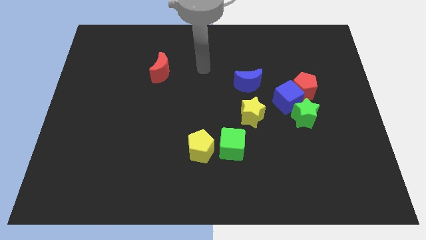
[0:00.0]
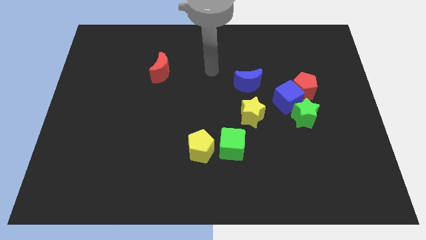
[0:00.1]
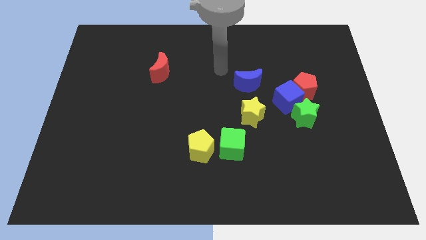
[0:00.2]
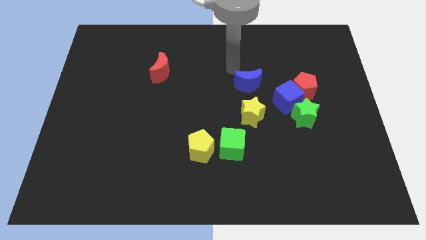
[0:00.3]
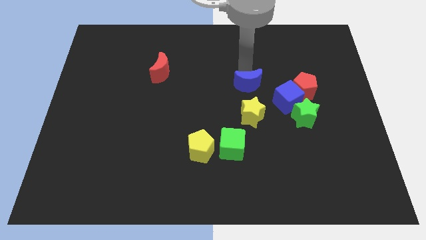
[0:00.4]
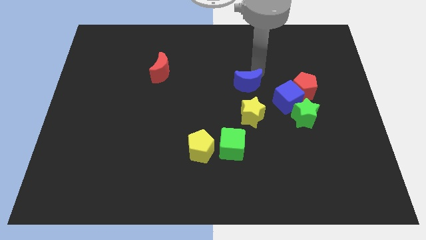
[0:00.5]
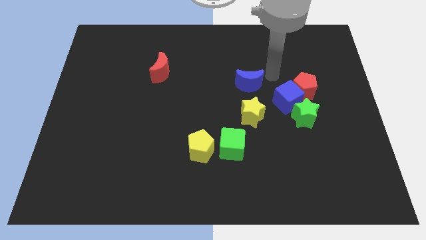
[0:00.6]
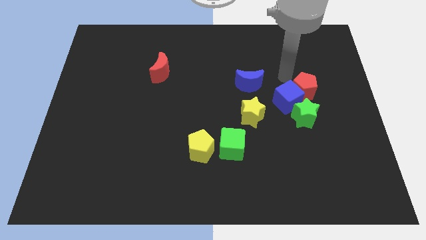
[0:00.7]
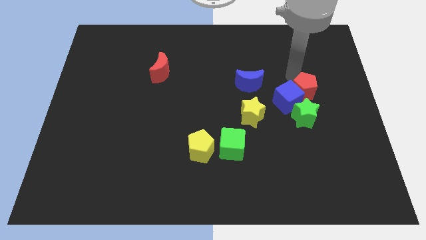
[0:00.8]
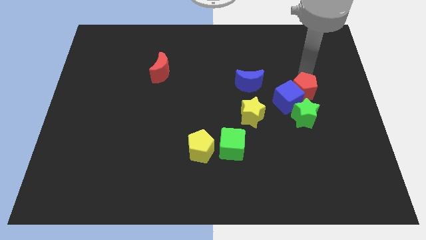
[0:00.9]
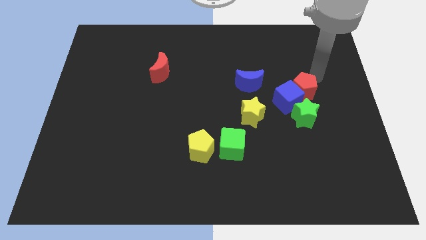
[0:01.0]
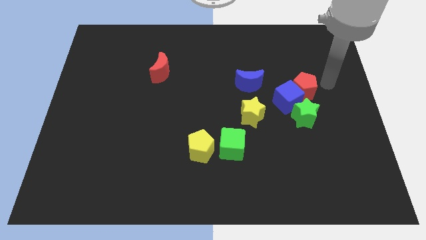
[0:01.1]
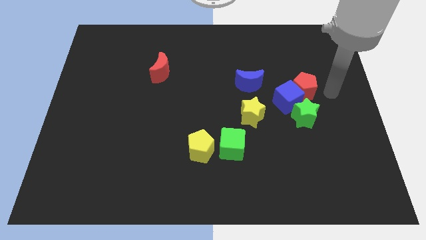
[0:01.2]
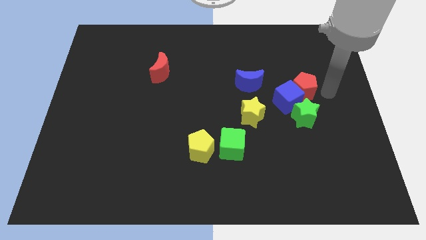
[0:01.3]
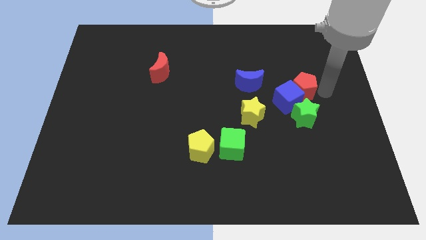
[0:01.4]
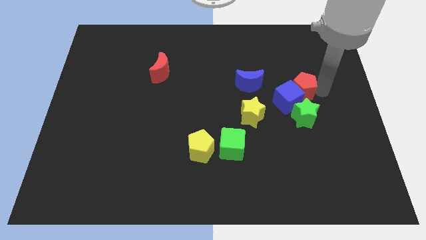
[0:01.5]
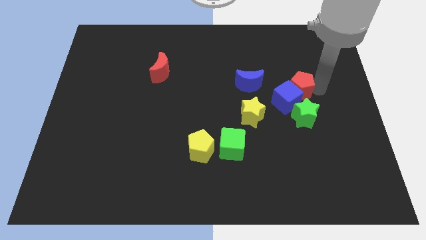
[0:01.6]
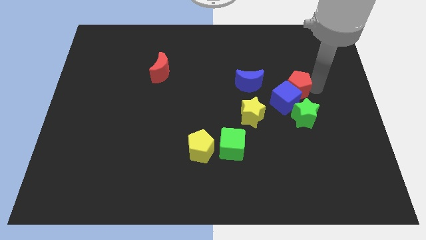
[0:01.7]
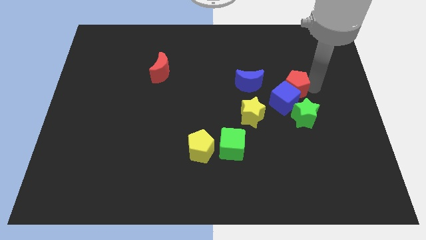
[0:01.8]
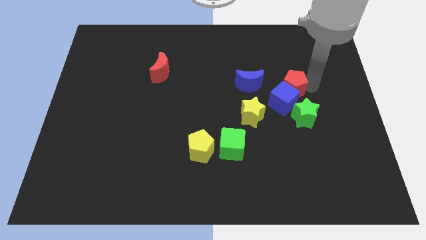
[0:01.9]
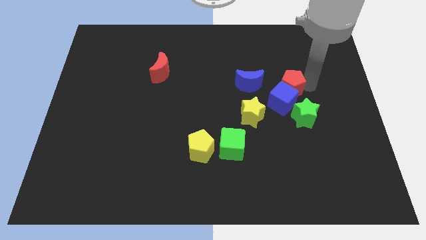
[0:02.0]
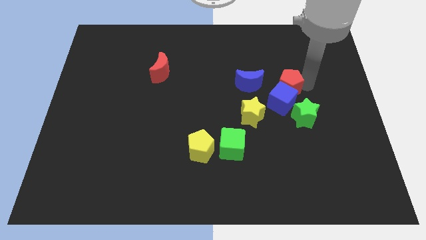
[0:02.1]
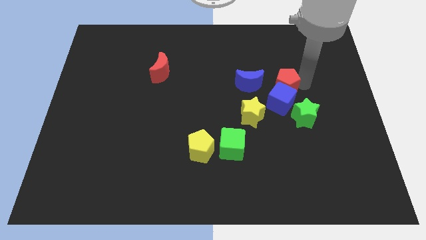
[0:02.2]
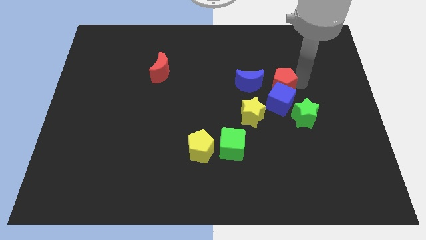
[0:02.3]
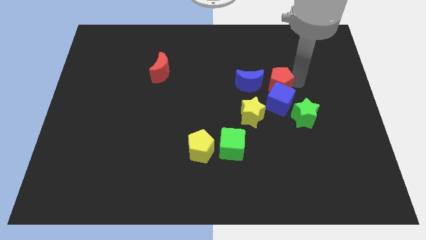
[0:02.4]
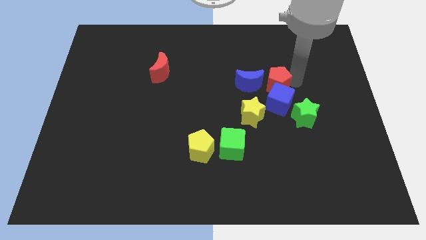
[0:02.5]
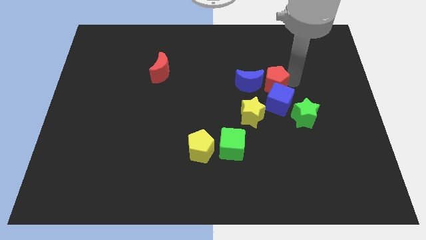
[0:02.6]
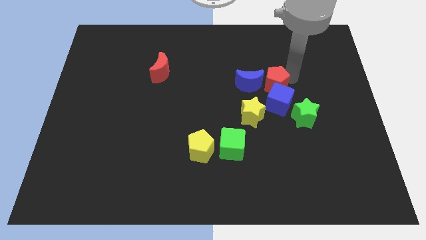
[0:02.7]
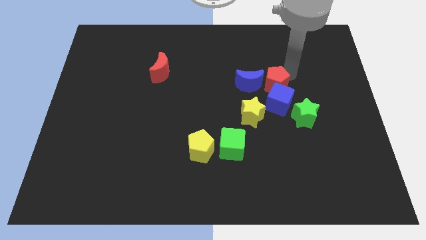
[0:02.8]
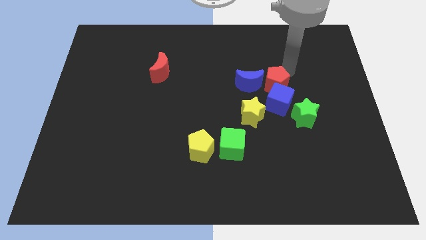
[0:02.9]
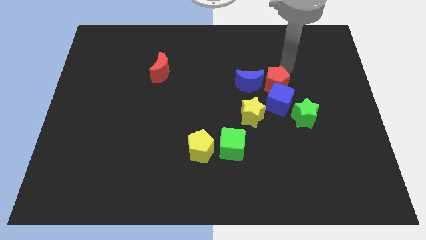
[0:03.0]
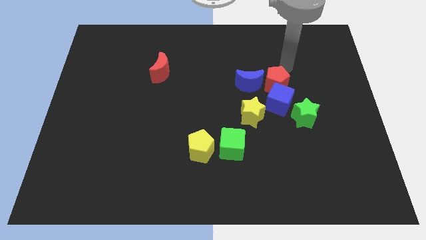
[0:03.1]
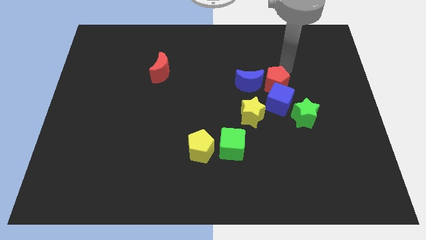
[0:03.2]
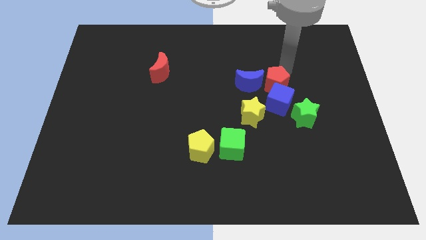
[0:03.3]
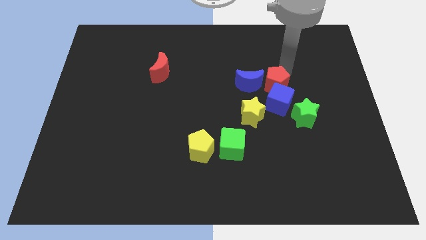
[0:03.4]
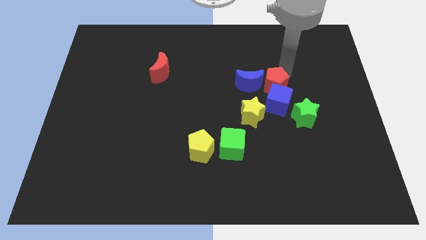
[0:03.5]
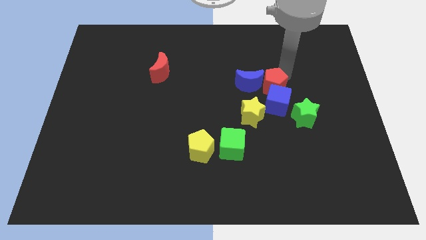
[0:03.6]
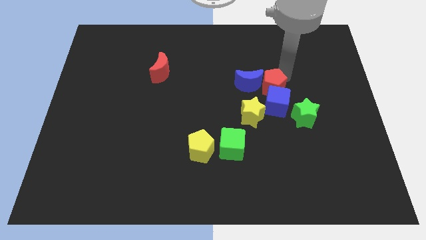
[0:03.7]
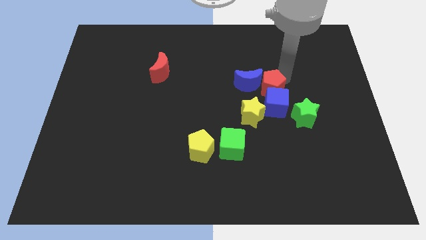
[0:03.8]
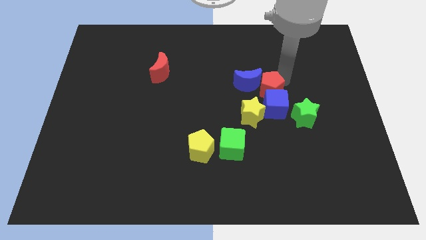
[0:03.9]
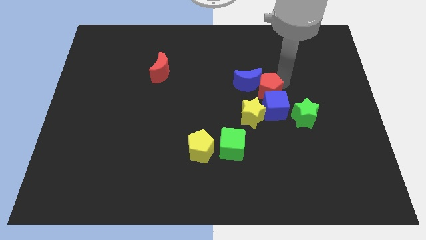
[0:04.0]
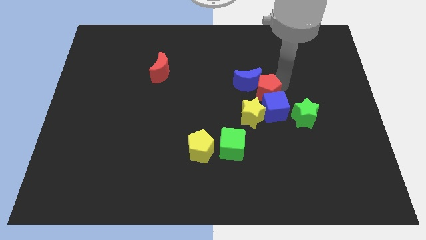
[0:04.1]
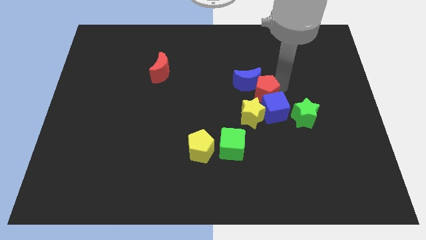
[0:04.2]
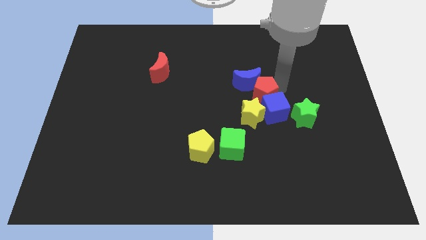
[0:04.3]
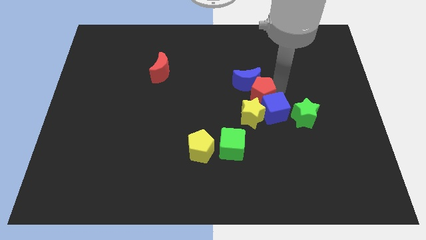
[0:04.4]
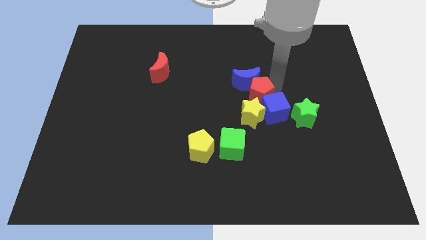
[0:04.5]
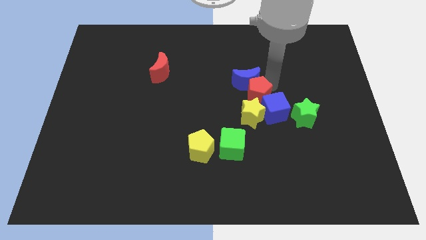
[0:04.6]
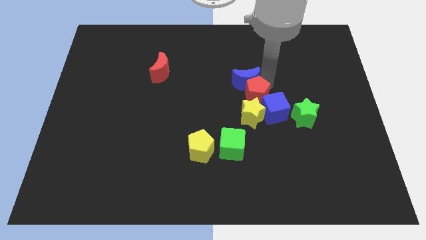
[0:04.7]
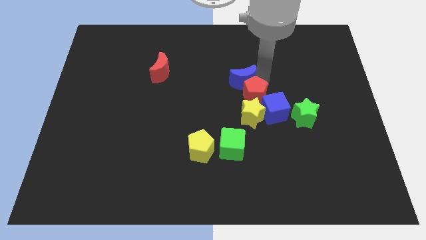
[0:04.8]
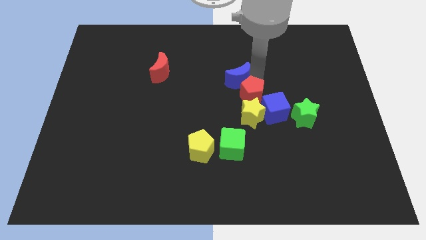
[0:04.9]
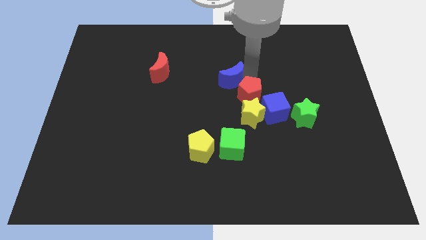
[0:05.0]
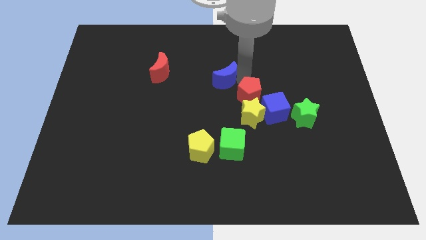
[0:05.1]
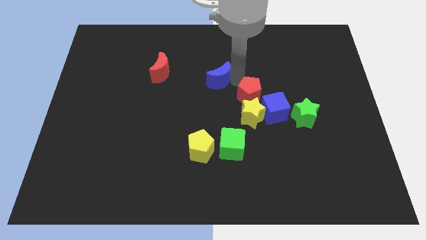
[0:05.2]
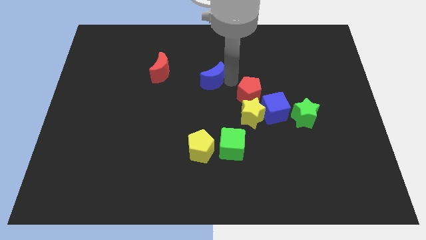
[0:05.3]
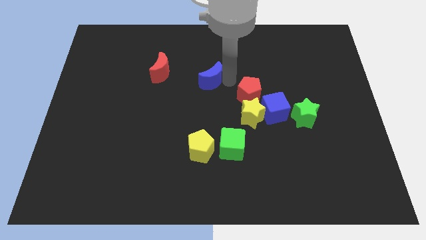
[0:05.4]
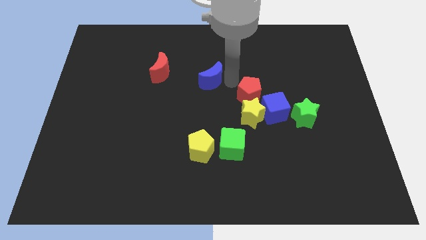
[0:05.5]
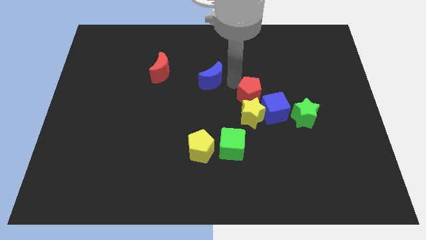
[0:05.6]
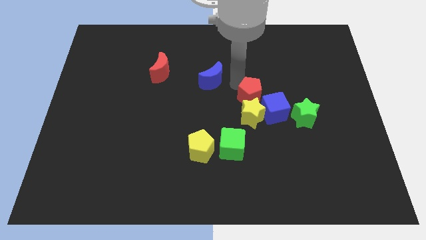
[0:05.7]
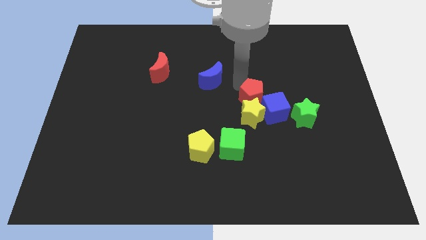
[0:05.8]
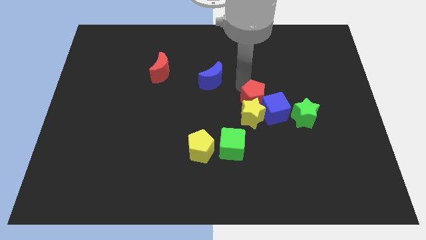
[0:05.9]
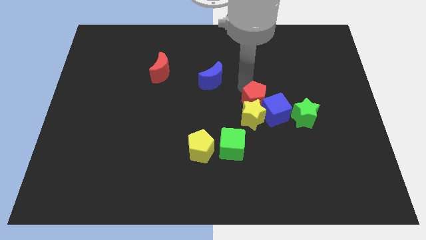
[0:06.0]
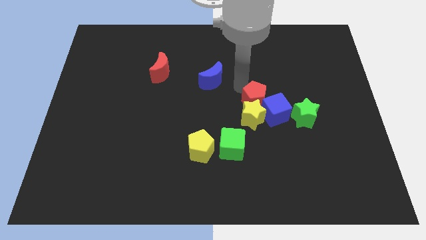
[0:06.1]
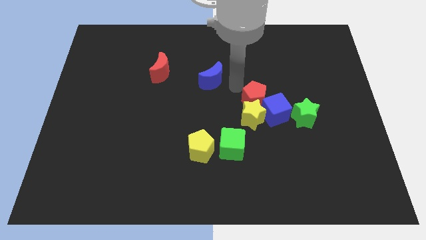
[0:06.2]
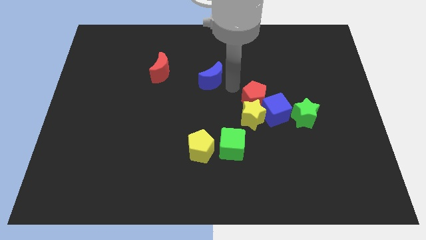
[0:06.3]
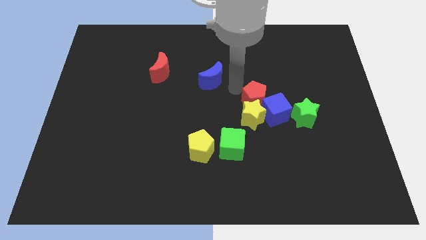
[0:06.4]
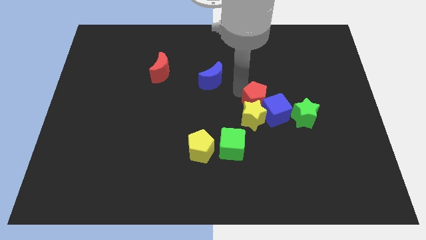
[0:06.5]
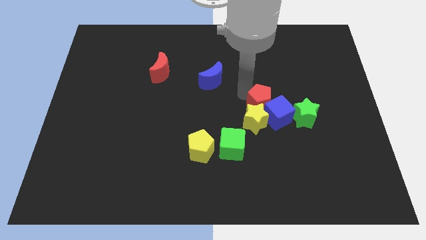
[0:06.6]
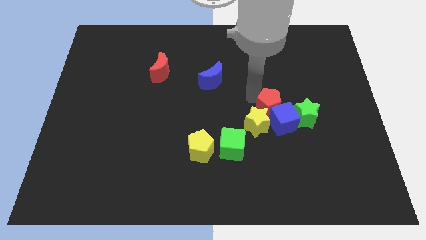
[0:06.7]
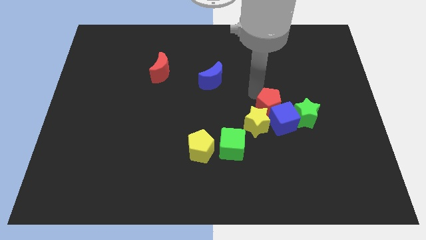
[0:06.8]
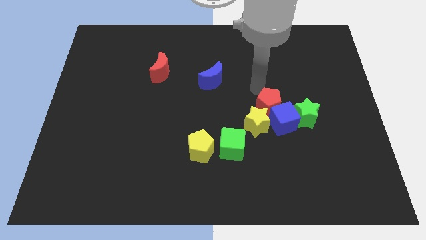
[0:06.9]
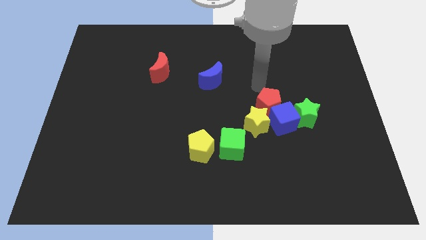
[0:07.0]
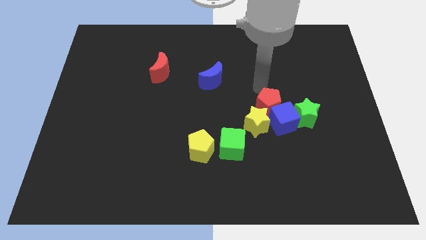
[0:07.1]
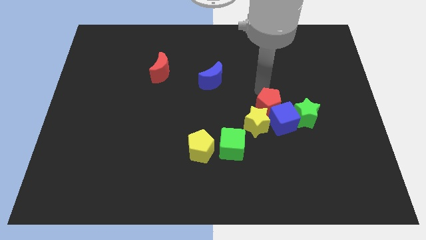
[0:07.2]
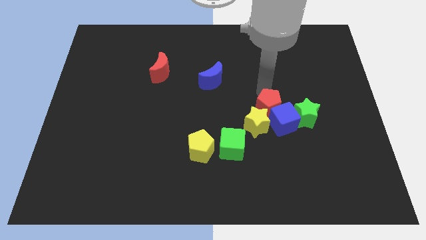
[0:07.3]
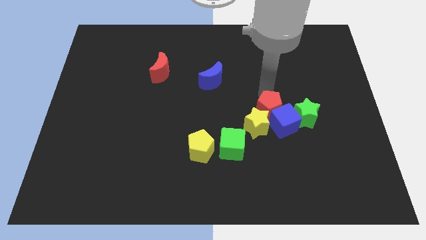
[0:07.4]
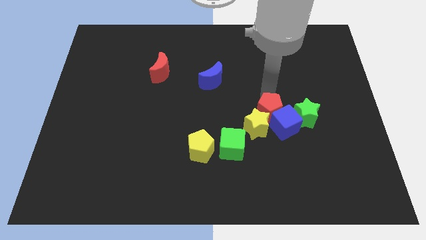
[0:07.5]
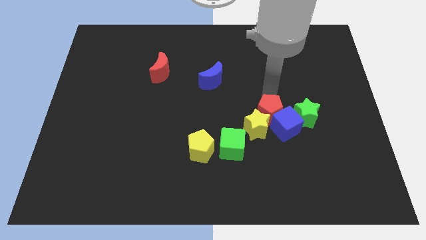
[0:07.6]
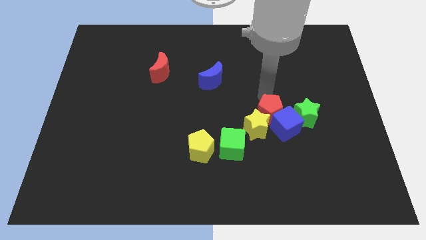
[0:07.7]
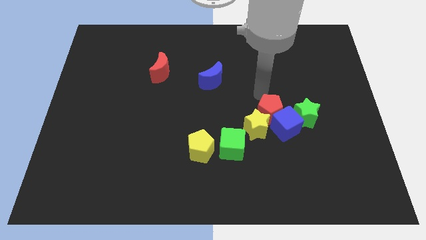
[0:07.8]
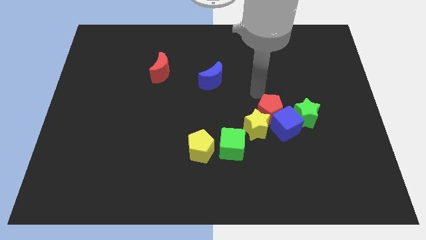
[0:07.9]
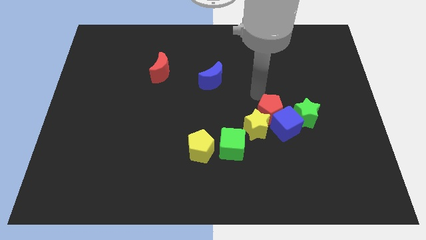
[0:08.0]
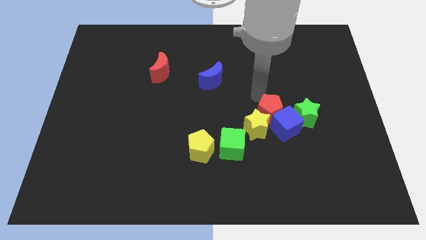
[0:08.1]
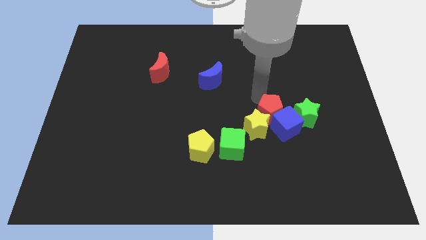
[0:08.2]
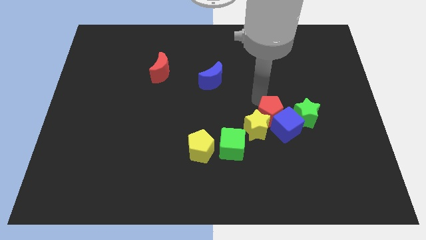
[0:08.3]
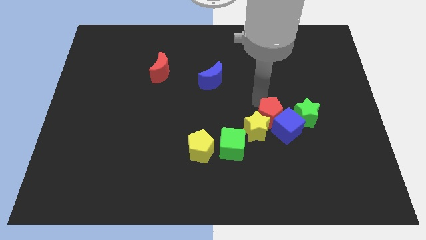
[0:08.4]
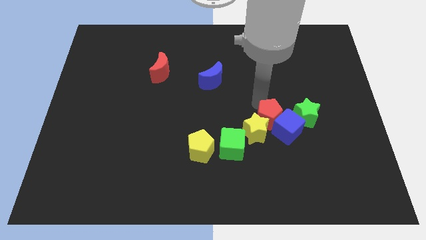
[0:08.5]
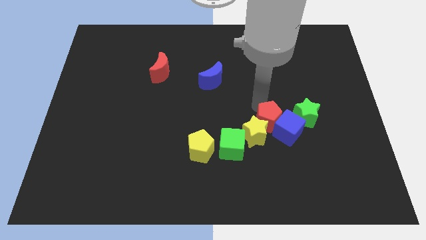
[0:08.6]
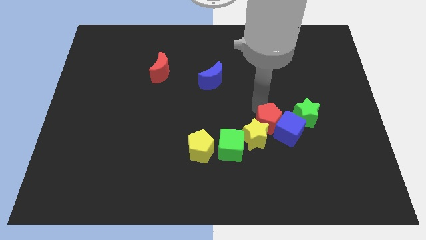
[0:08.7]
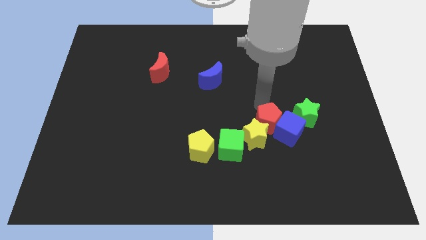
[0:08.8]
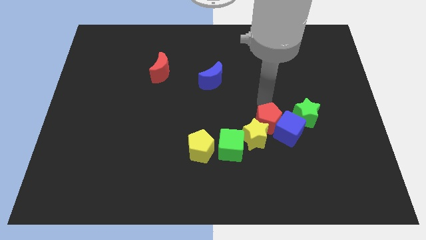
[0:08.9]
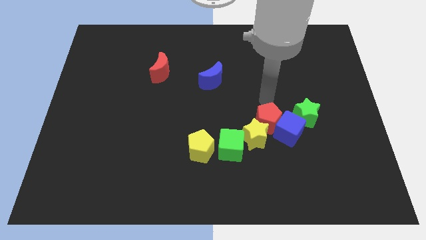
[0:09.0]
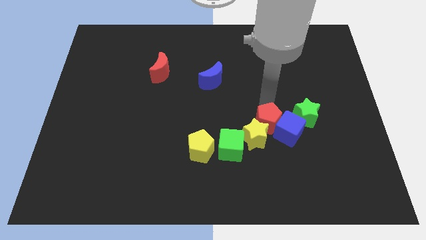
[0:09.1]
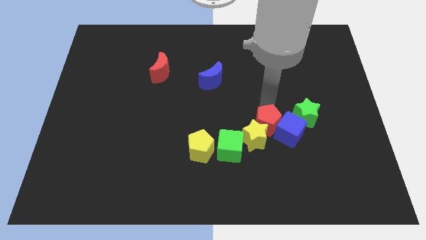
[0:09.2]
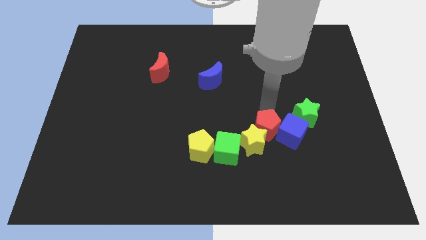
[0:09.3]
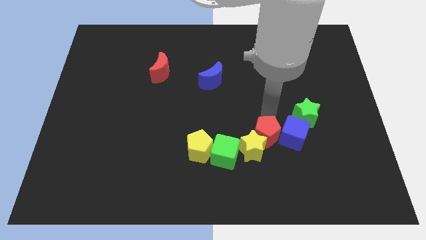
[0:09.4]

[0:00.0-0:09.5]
slide the red pentagon just right of the yellow pentagon
